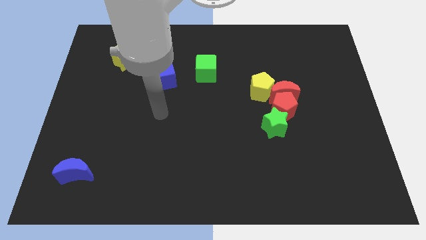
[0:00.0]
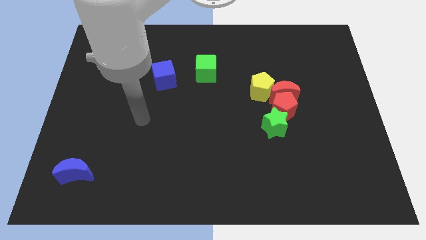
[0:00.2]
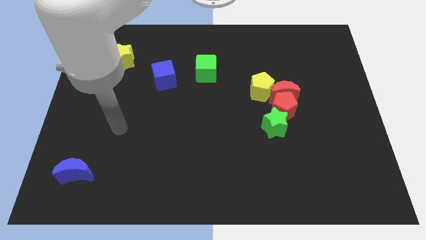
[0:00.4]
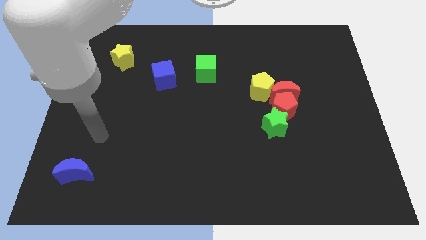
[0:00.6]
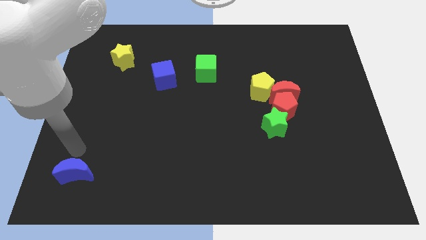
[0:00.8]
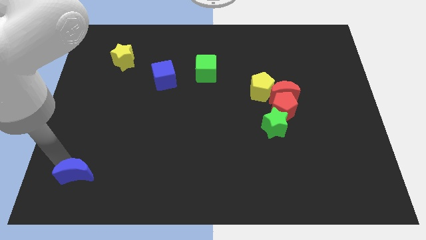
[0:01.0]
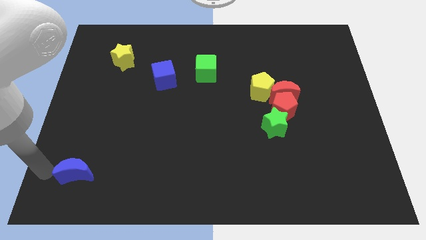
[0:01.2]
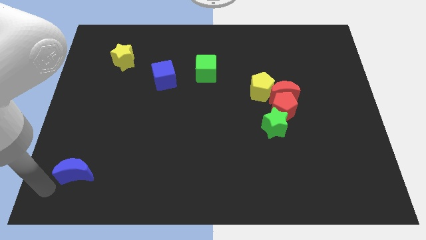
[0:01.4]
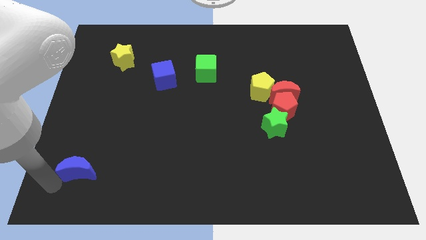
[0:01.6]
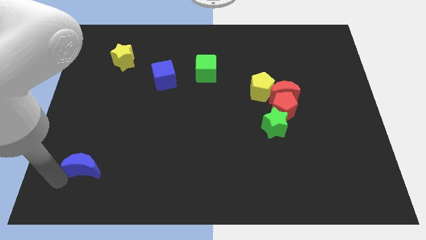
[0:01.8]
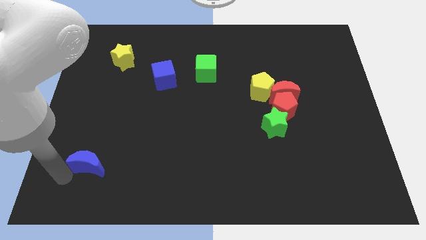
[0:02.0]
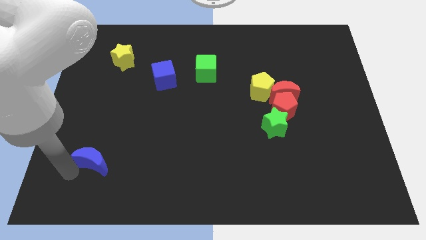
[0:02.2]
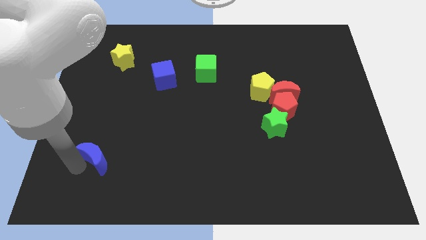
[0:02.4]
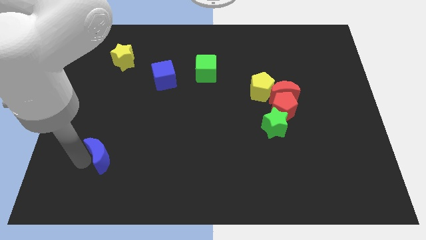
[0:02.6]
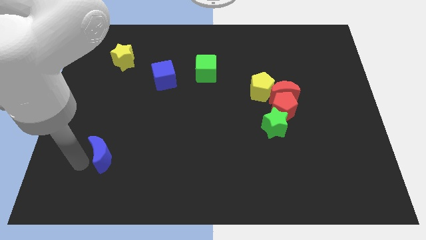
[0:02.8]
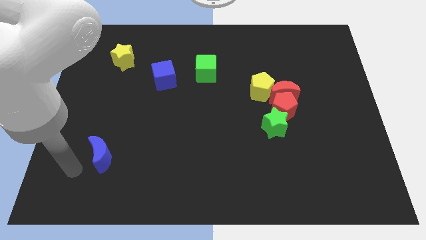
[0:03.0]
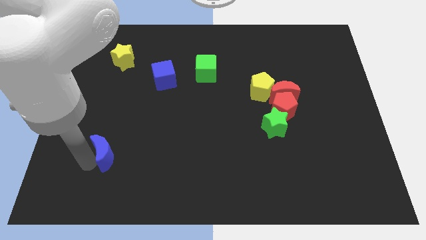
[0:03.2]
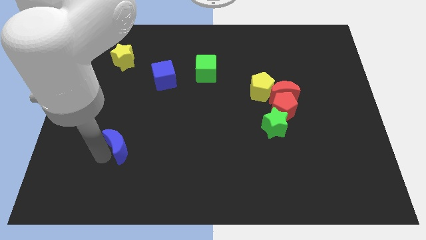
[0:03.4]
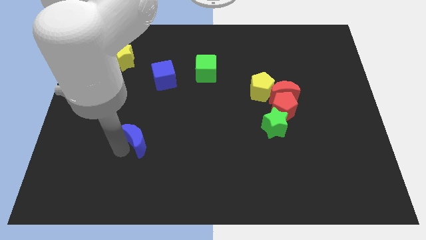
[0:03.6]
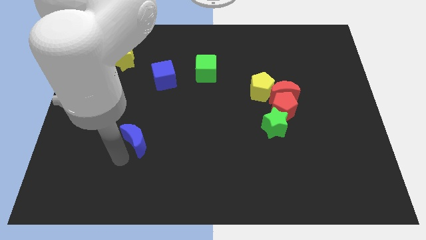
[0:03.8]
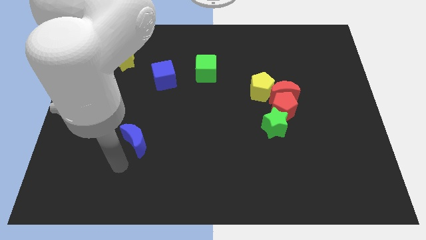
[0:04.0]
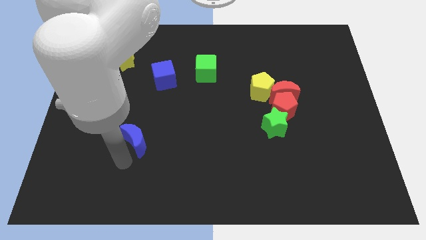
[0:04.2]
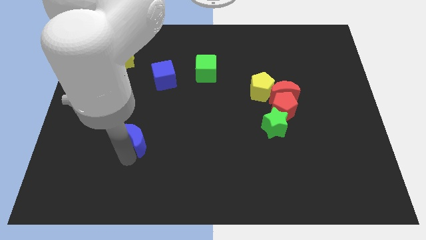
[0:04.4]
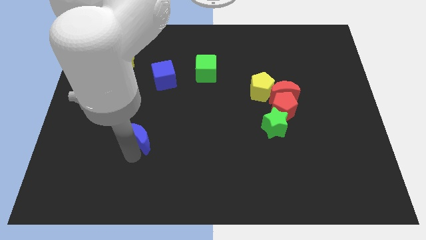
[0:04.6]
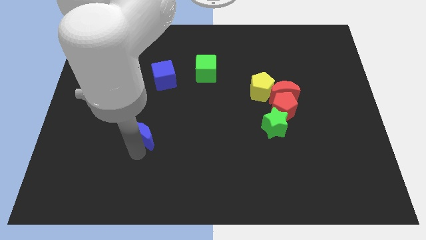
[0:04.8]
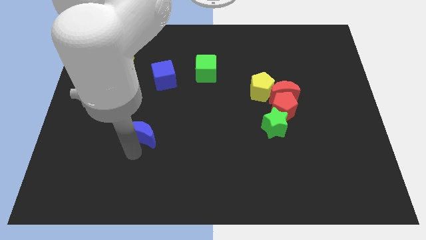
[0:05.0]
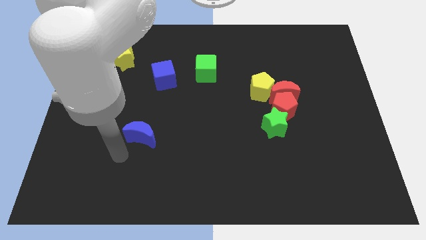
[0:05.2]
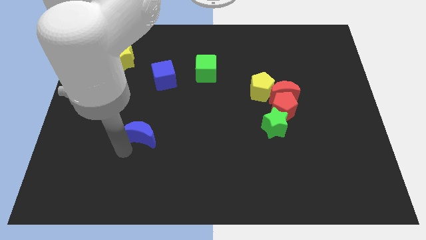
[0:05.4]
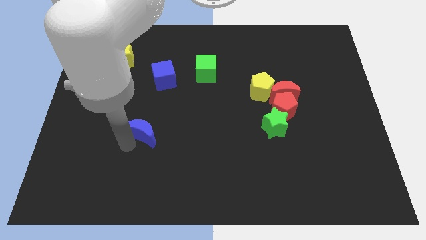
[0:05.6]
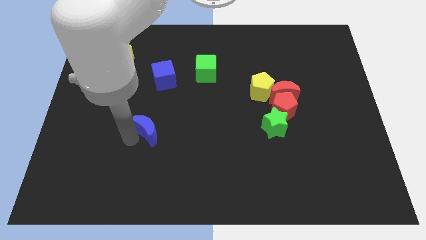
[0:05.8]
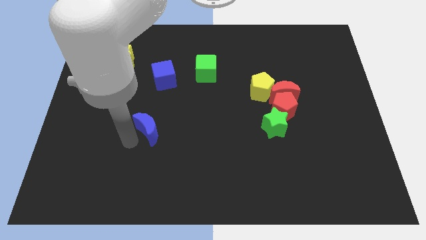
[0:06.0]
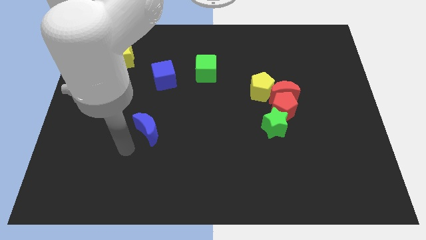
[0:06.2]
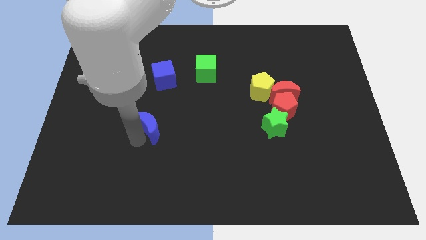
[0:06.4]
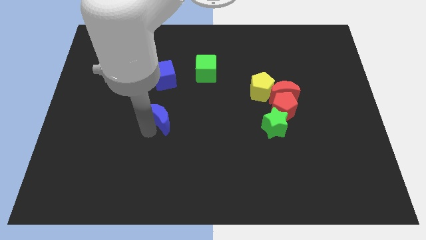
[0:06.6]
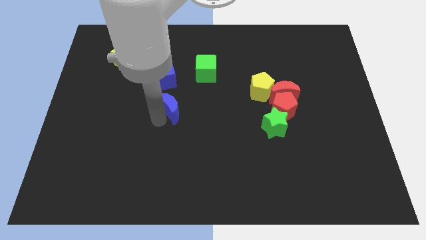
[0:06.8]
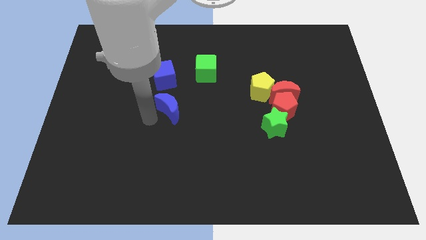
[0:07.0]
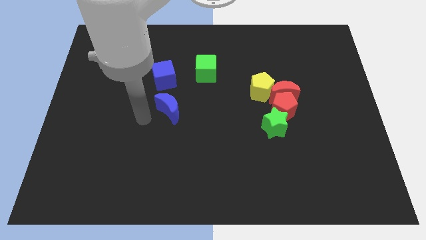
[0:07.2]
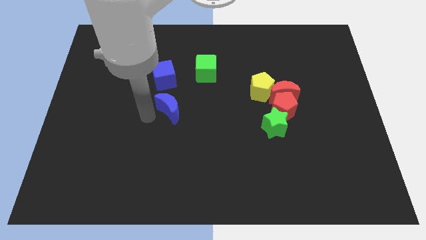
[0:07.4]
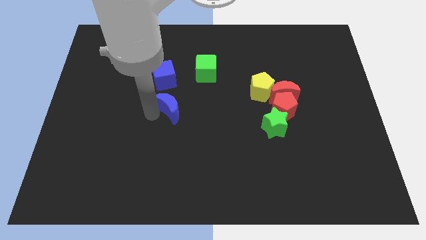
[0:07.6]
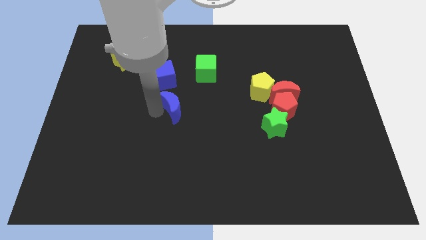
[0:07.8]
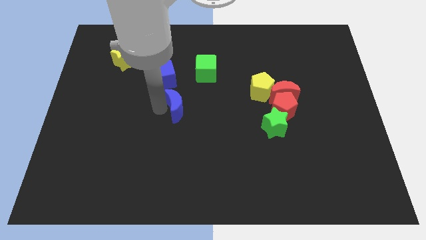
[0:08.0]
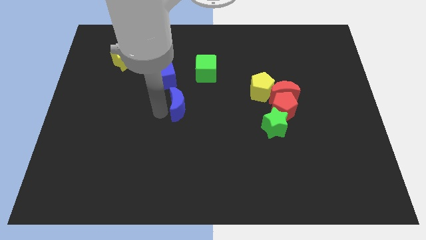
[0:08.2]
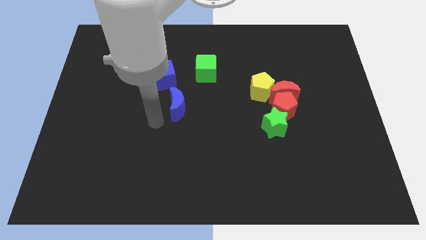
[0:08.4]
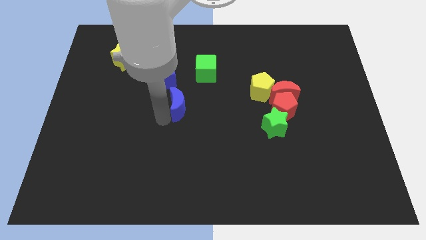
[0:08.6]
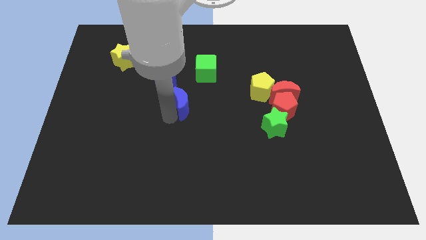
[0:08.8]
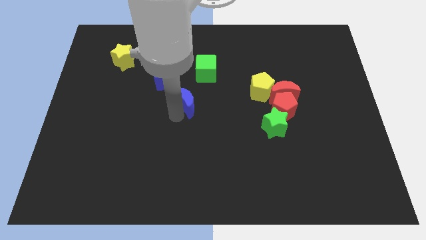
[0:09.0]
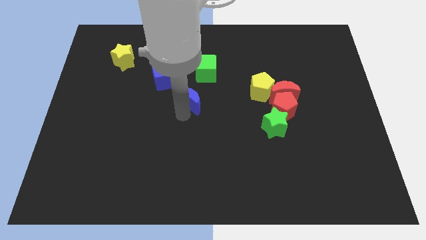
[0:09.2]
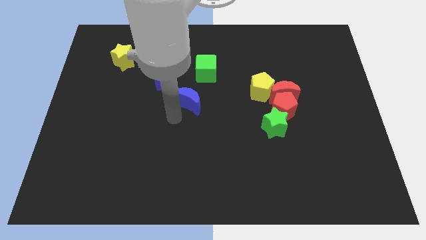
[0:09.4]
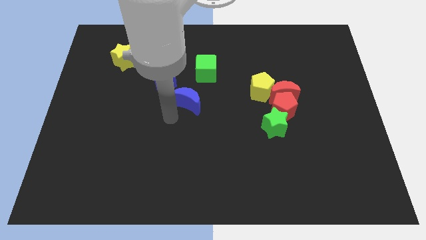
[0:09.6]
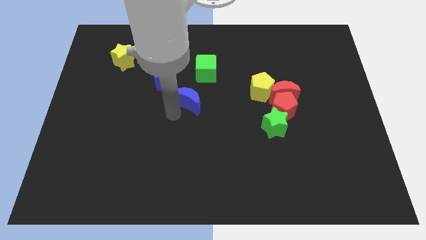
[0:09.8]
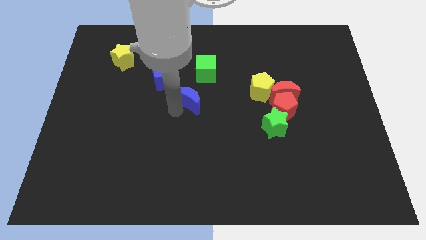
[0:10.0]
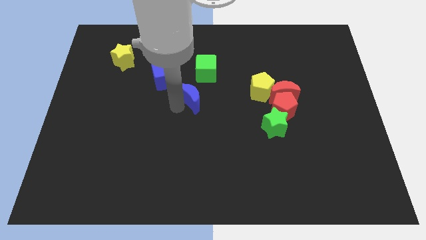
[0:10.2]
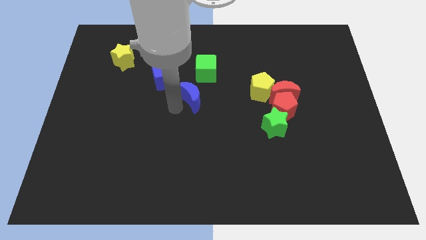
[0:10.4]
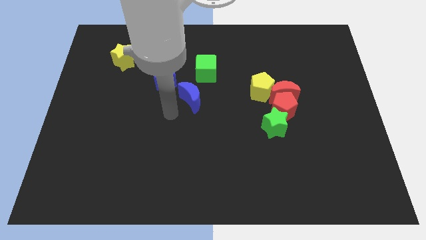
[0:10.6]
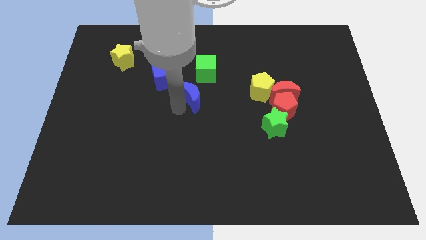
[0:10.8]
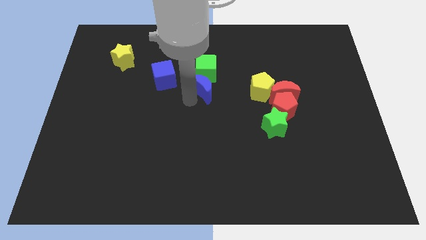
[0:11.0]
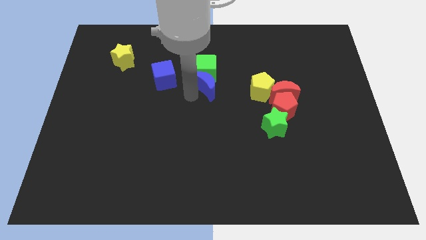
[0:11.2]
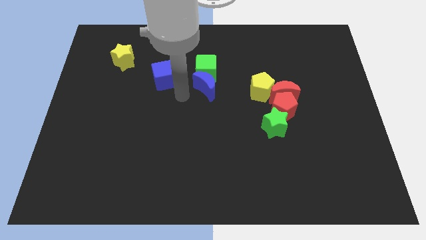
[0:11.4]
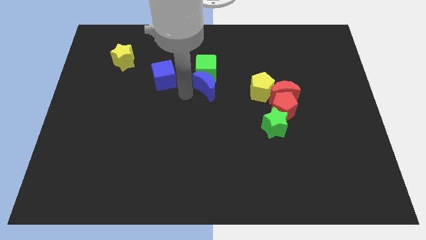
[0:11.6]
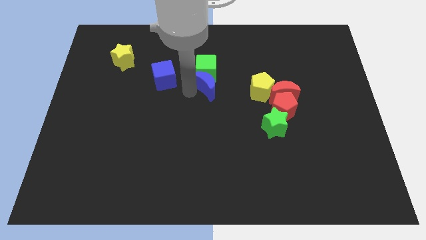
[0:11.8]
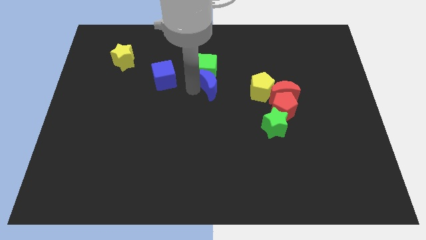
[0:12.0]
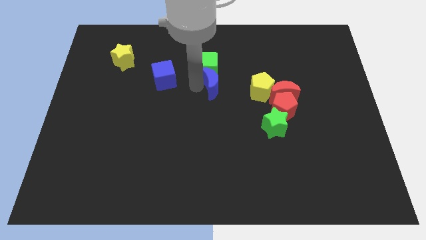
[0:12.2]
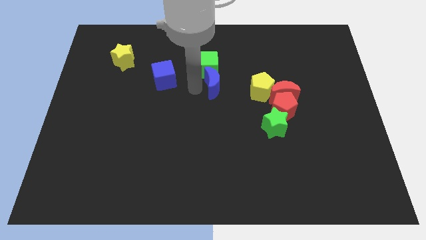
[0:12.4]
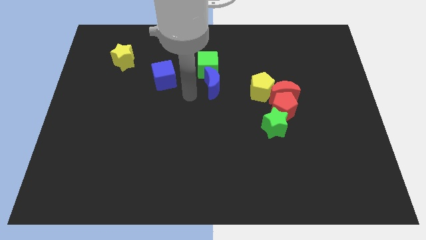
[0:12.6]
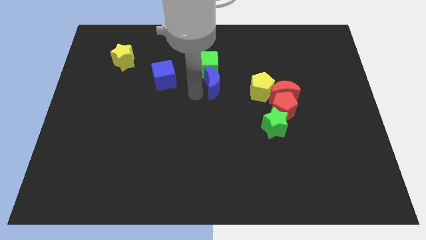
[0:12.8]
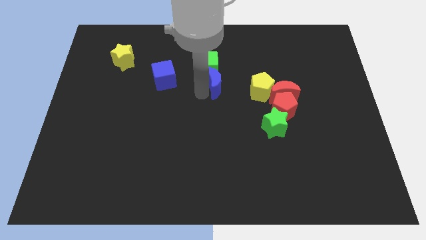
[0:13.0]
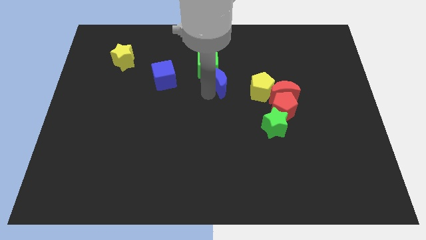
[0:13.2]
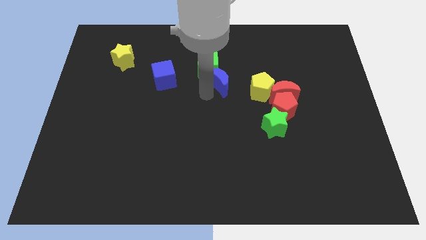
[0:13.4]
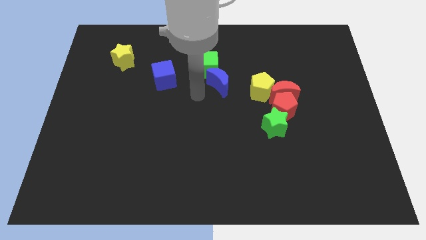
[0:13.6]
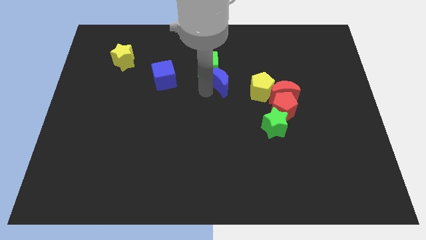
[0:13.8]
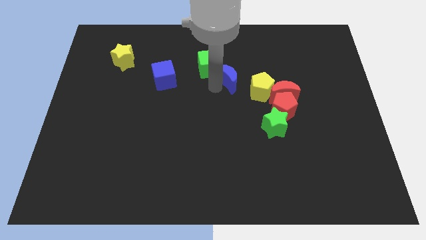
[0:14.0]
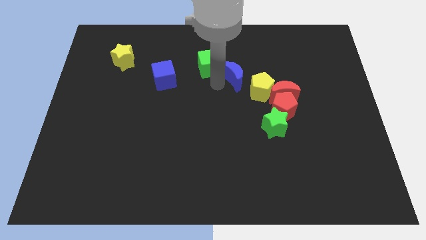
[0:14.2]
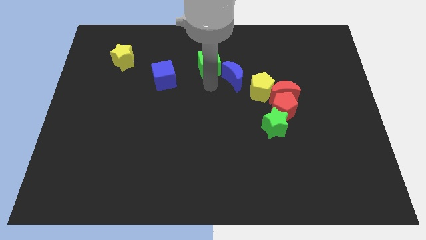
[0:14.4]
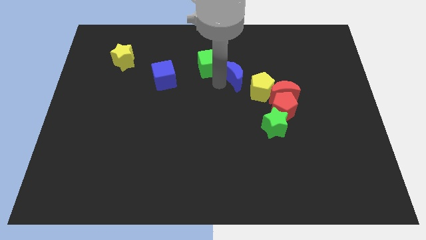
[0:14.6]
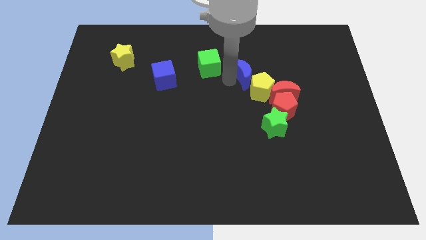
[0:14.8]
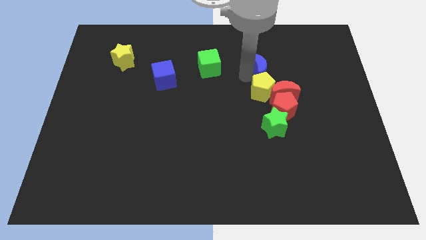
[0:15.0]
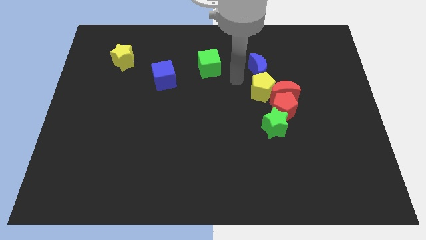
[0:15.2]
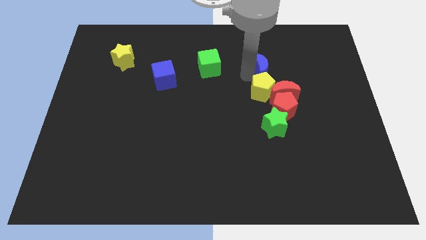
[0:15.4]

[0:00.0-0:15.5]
push the blue moon to the top of the red moon

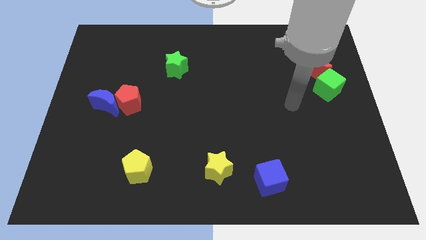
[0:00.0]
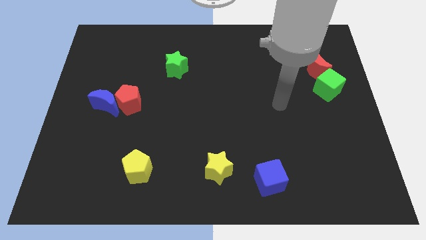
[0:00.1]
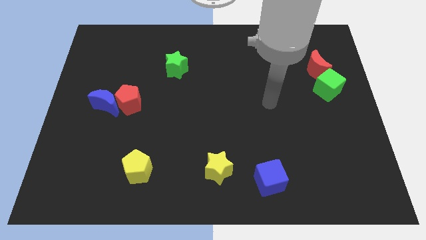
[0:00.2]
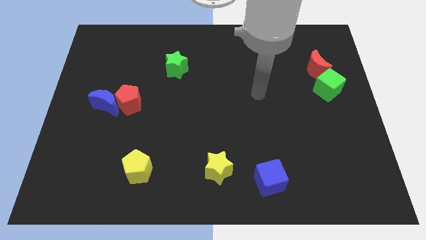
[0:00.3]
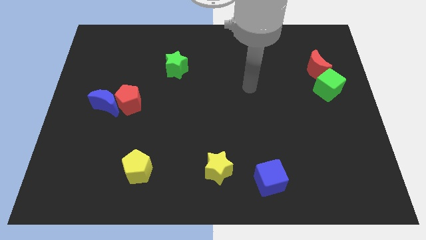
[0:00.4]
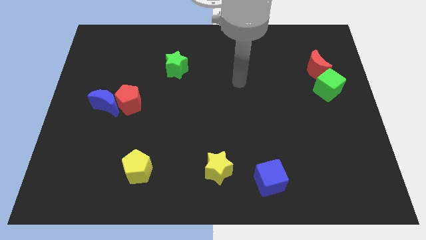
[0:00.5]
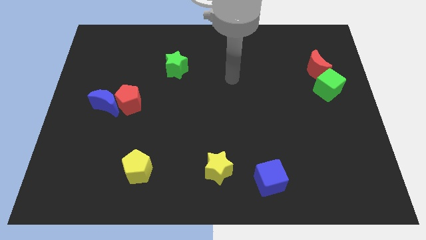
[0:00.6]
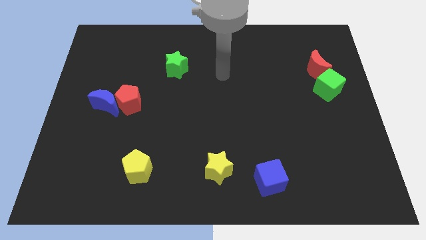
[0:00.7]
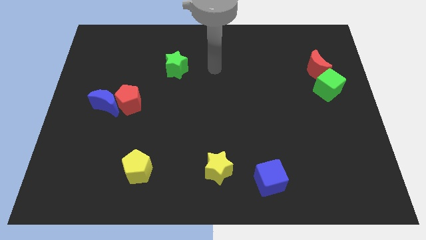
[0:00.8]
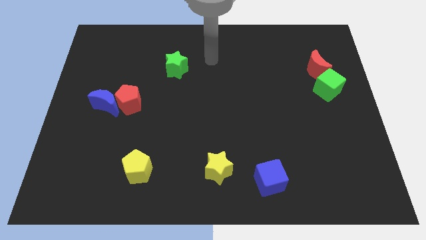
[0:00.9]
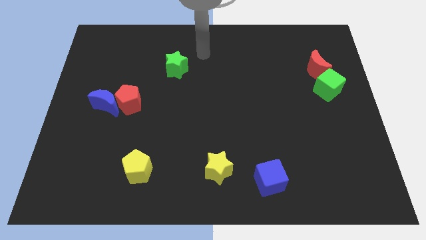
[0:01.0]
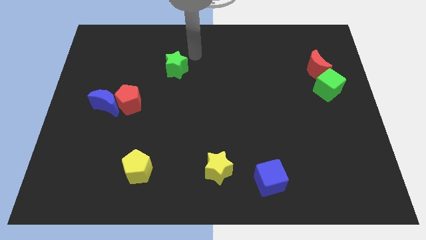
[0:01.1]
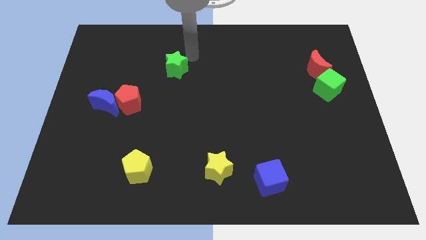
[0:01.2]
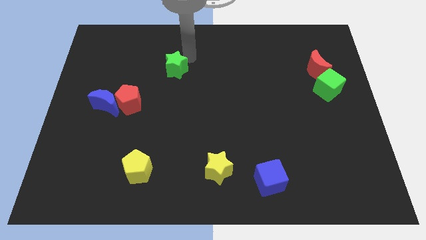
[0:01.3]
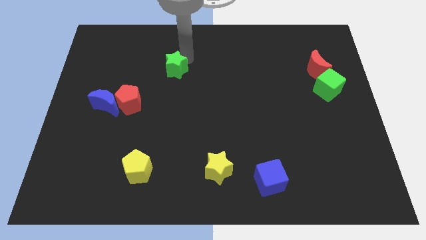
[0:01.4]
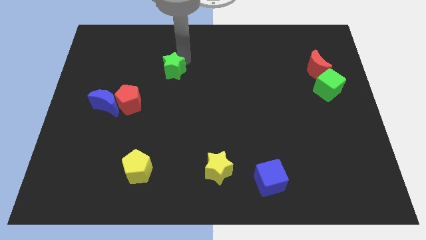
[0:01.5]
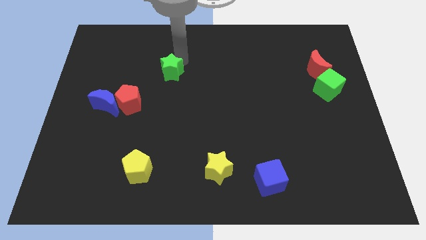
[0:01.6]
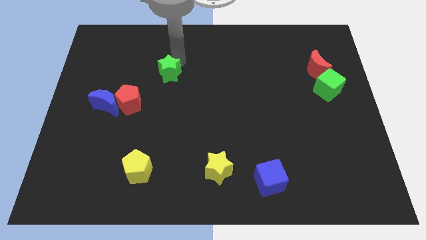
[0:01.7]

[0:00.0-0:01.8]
push the green star to the top right side of the red pentagon
